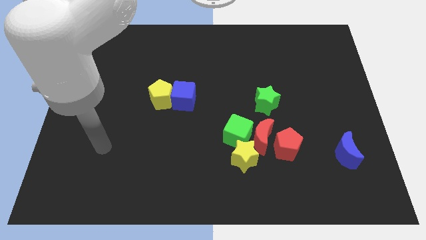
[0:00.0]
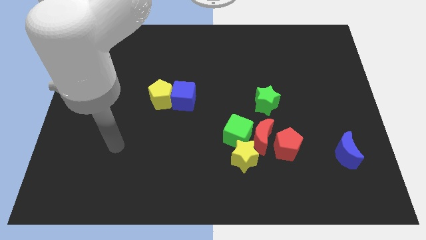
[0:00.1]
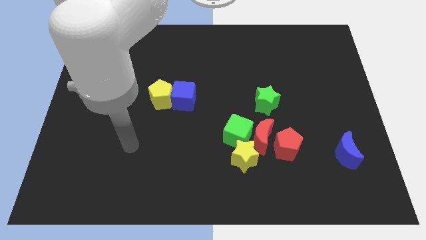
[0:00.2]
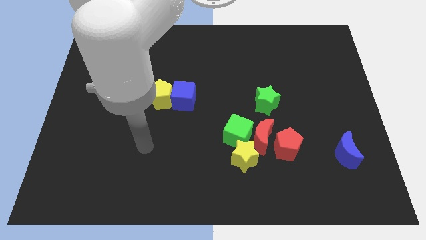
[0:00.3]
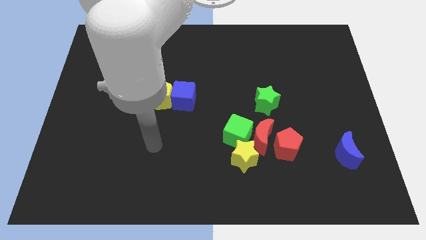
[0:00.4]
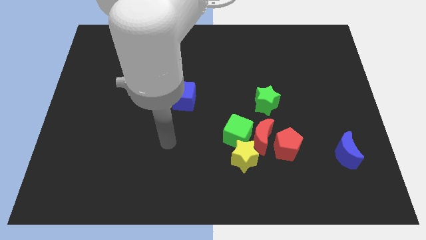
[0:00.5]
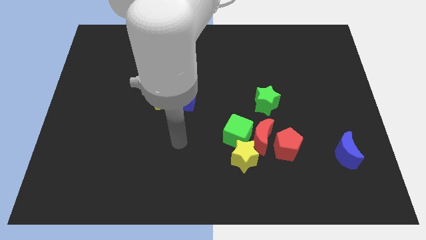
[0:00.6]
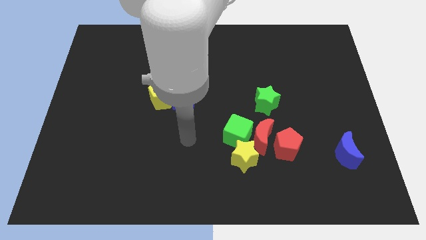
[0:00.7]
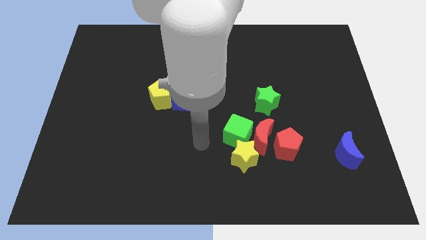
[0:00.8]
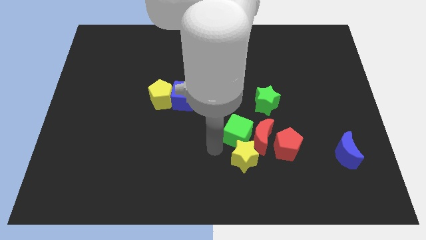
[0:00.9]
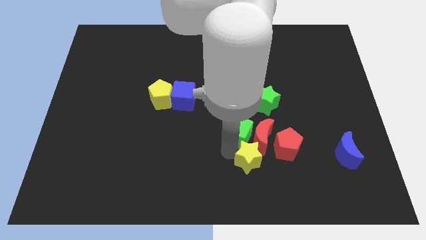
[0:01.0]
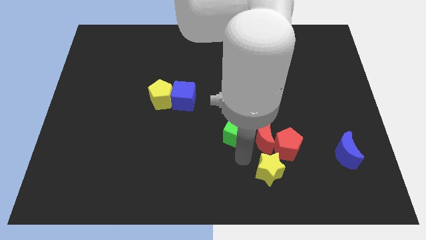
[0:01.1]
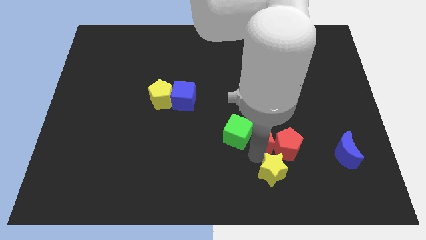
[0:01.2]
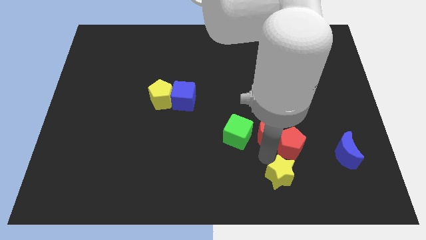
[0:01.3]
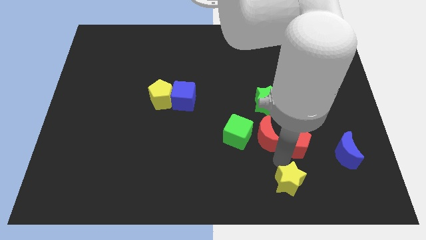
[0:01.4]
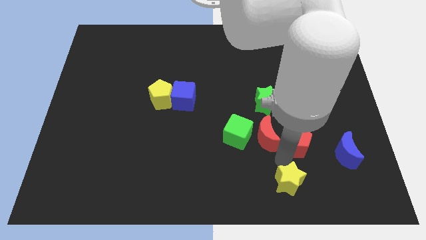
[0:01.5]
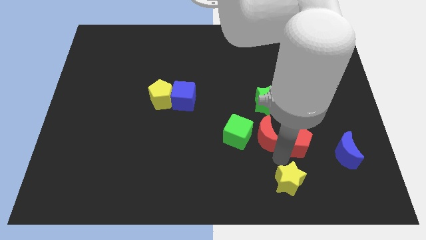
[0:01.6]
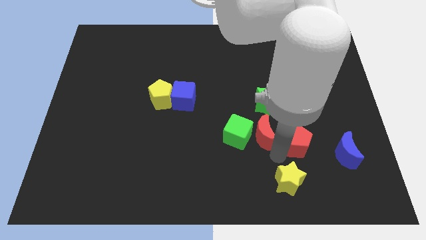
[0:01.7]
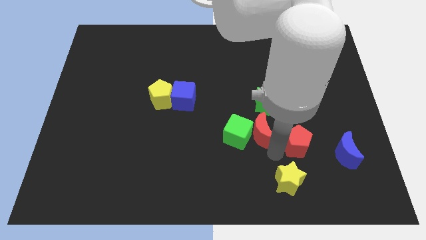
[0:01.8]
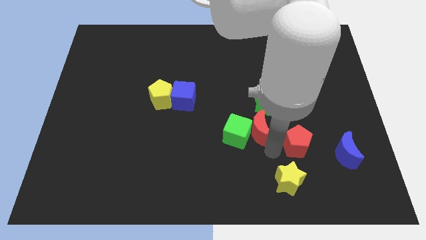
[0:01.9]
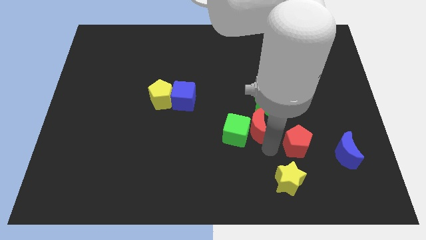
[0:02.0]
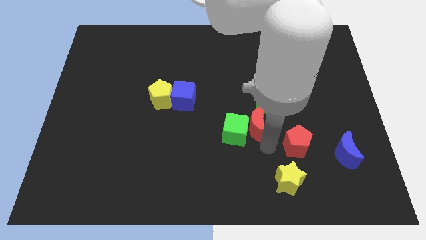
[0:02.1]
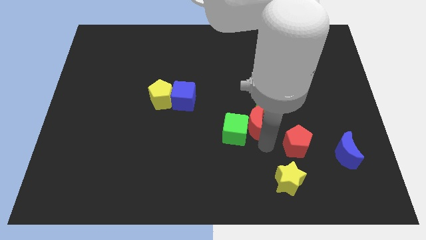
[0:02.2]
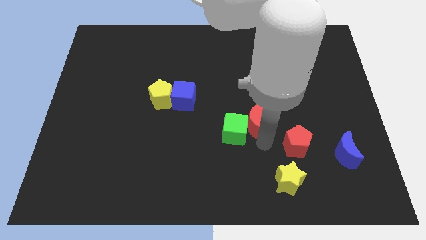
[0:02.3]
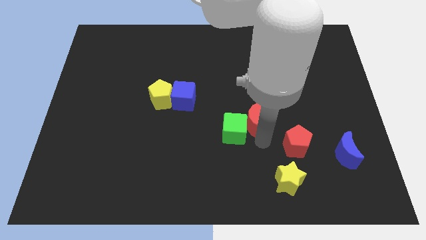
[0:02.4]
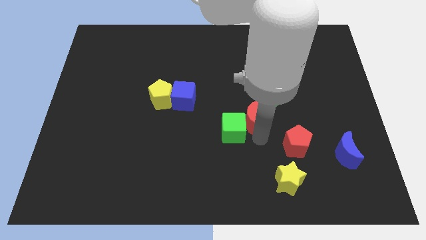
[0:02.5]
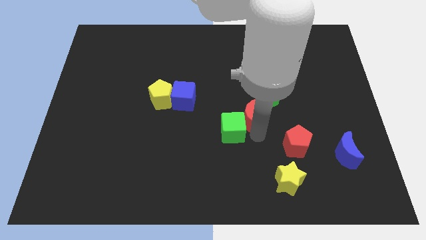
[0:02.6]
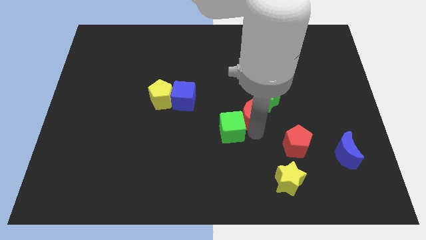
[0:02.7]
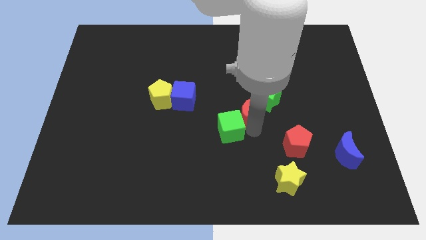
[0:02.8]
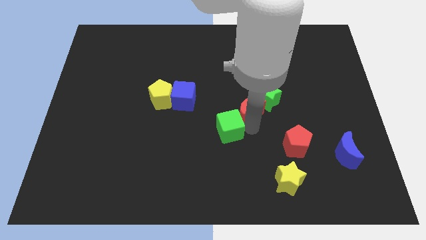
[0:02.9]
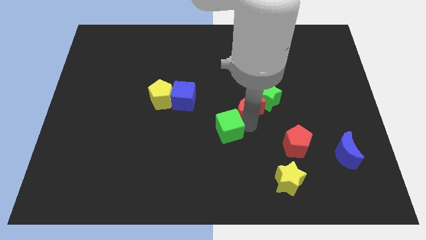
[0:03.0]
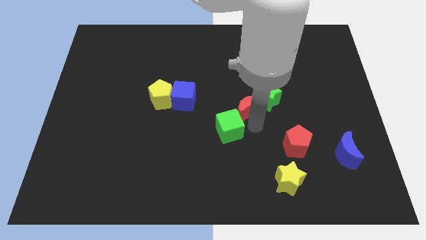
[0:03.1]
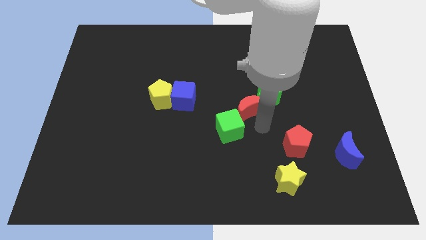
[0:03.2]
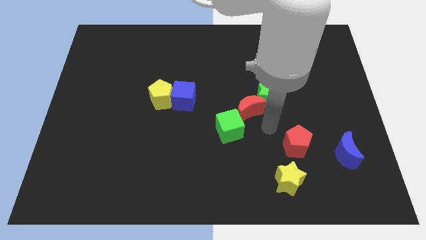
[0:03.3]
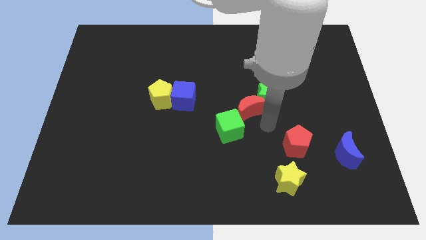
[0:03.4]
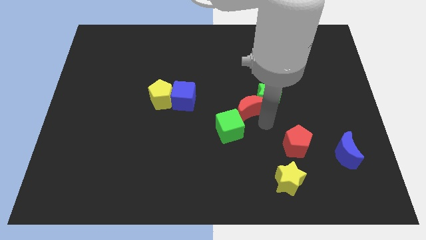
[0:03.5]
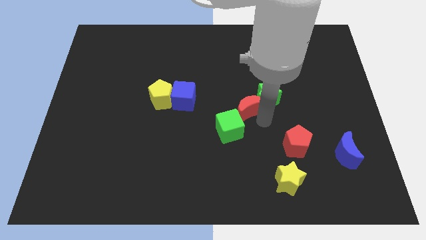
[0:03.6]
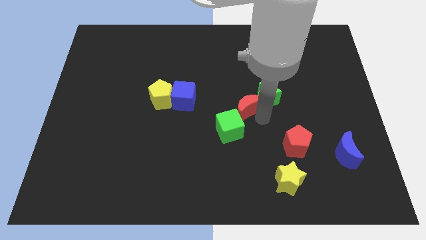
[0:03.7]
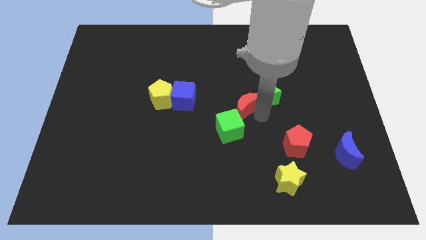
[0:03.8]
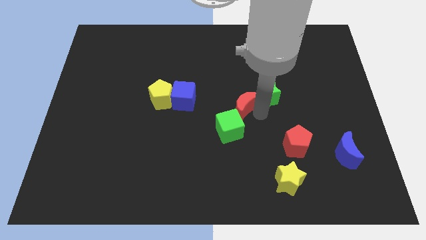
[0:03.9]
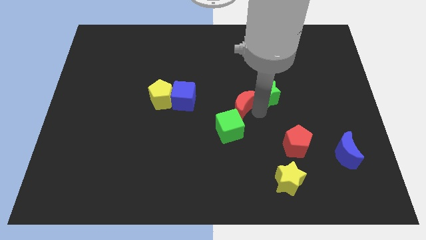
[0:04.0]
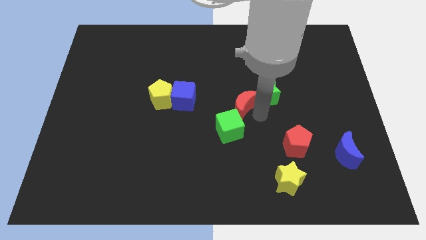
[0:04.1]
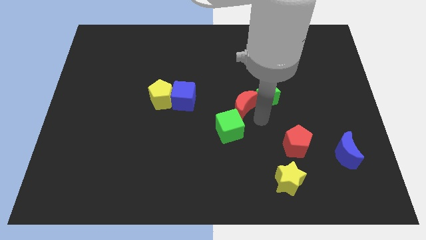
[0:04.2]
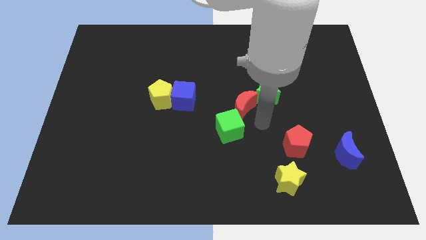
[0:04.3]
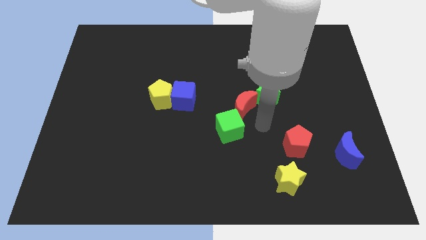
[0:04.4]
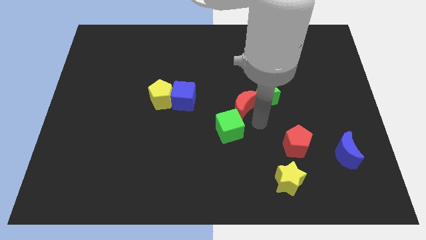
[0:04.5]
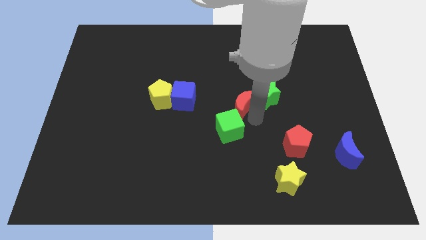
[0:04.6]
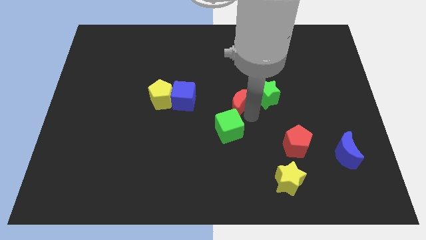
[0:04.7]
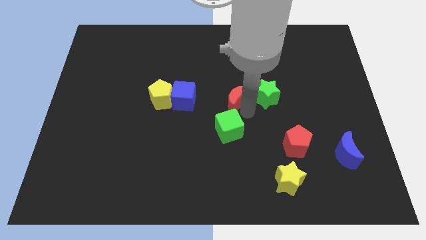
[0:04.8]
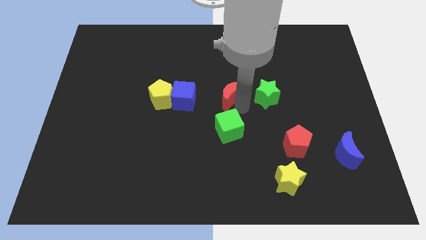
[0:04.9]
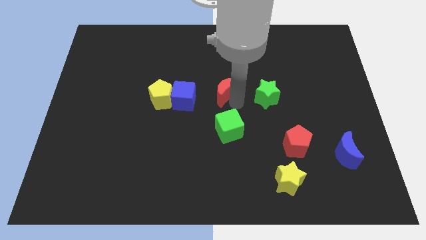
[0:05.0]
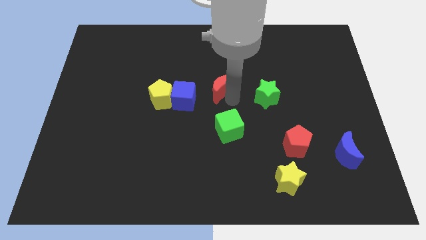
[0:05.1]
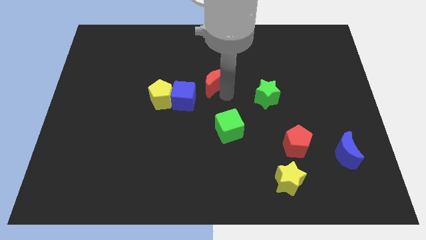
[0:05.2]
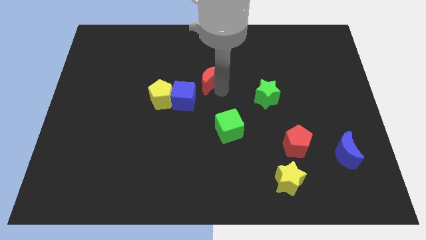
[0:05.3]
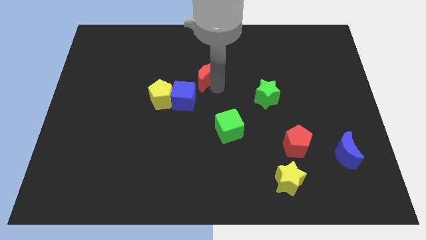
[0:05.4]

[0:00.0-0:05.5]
move the red moon upwards and left

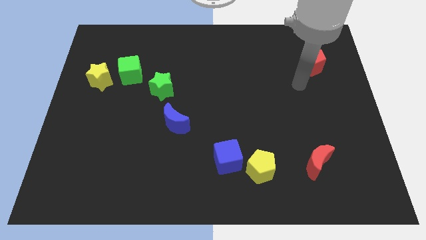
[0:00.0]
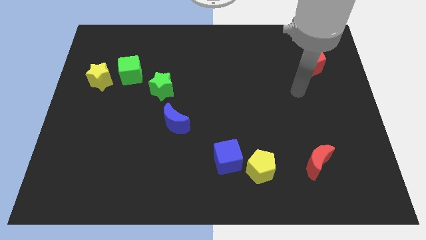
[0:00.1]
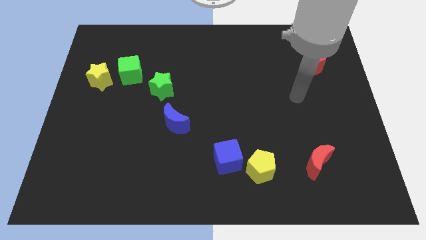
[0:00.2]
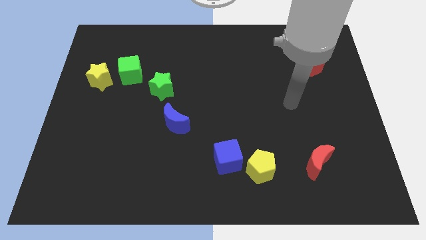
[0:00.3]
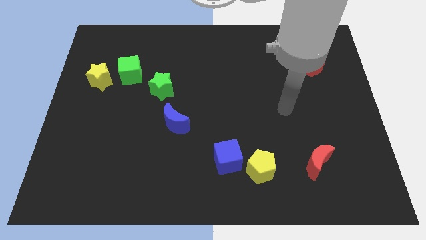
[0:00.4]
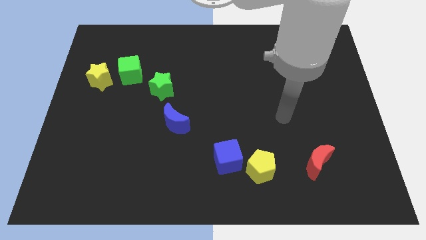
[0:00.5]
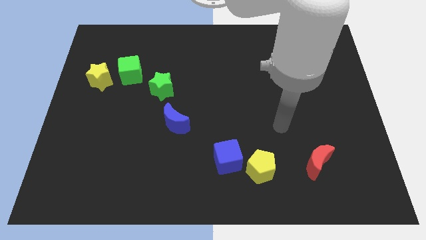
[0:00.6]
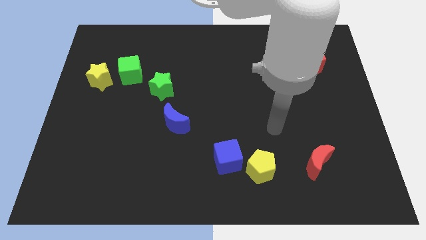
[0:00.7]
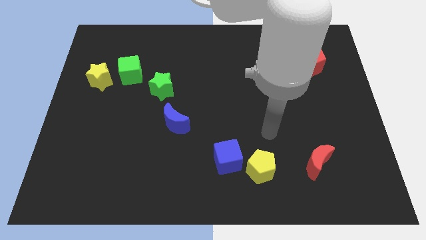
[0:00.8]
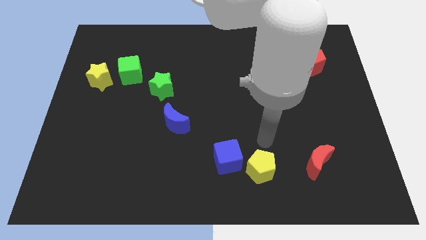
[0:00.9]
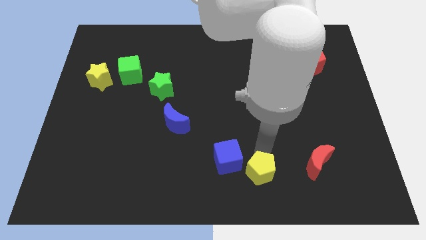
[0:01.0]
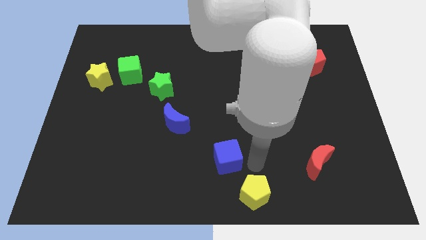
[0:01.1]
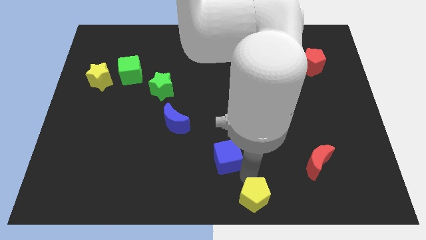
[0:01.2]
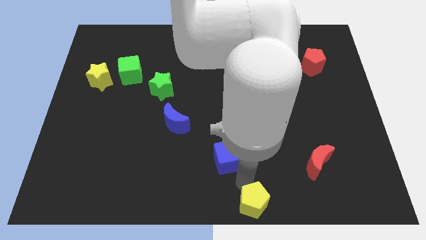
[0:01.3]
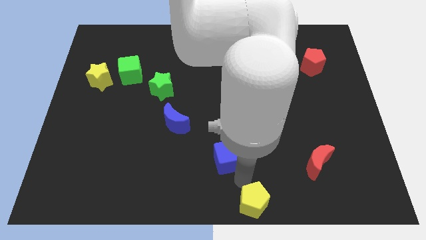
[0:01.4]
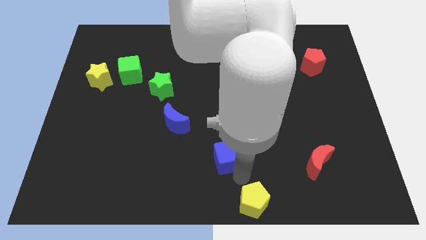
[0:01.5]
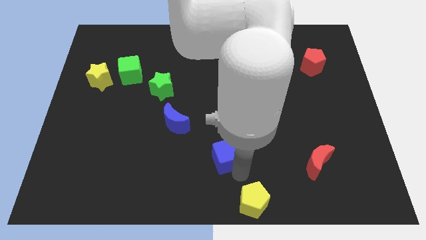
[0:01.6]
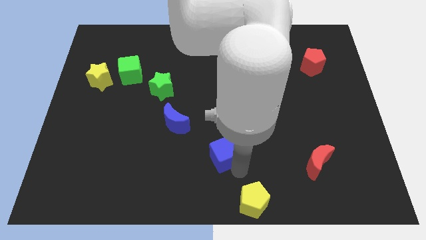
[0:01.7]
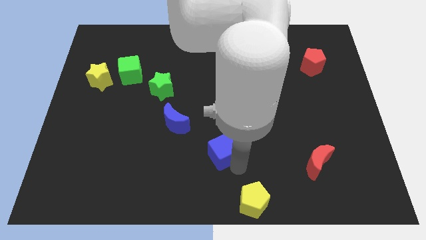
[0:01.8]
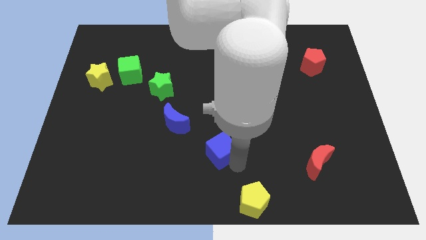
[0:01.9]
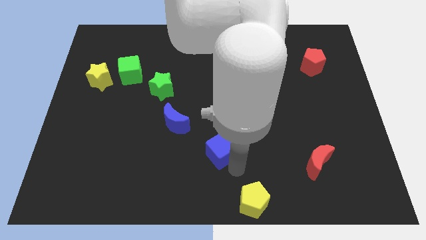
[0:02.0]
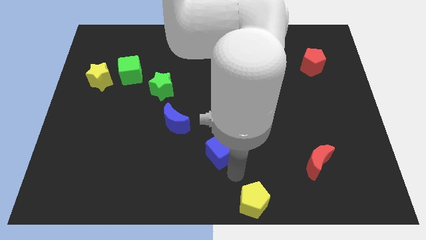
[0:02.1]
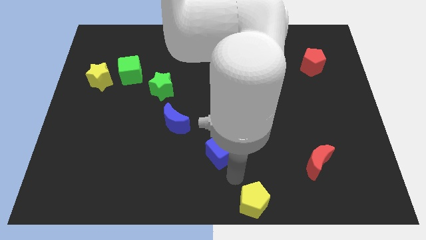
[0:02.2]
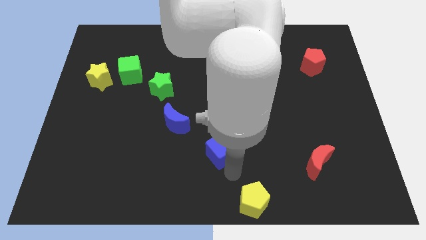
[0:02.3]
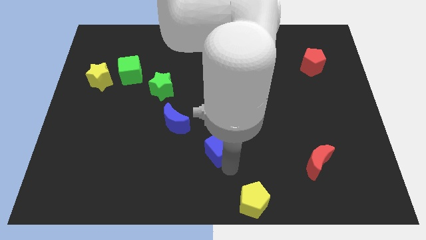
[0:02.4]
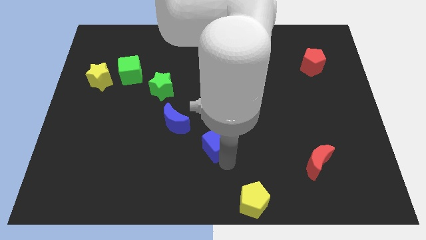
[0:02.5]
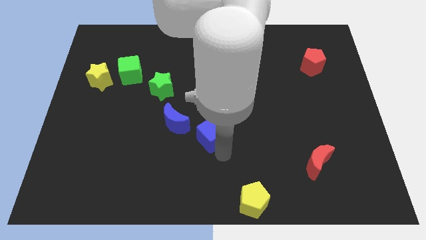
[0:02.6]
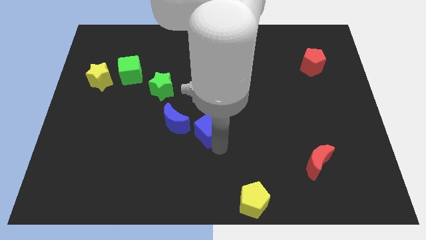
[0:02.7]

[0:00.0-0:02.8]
slightly slide the blue cube upwards and to the left diagonally
